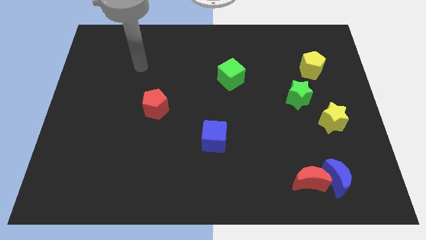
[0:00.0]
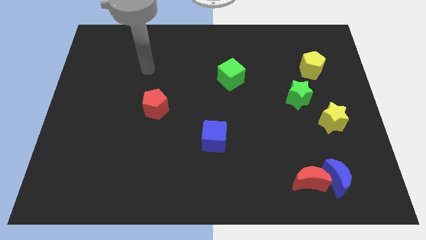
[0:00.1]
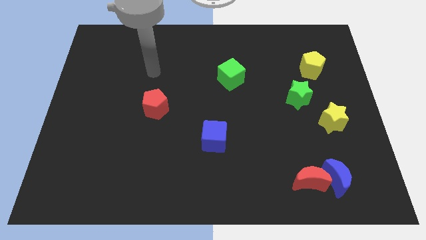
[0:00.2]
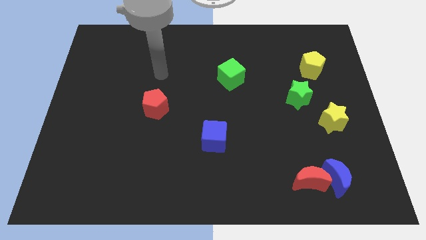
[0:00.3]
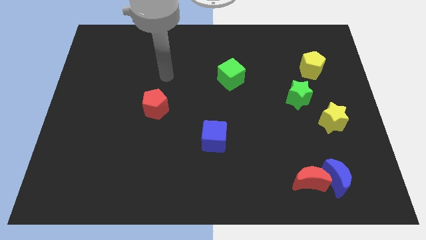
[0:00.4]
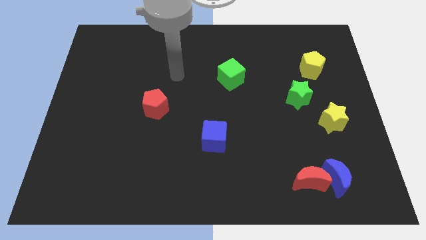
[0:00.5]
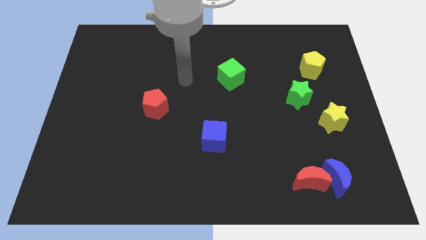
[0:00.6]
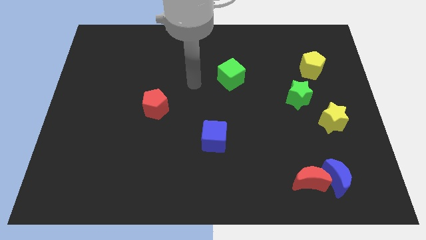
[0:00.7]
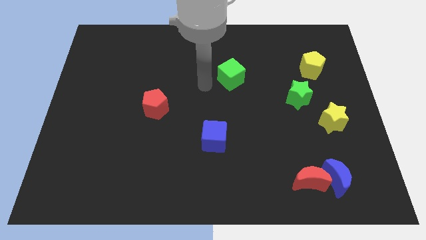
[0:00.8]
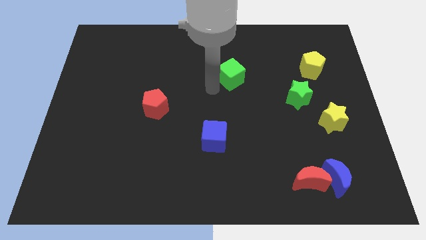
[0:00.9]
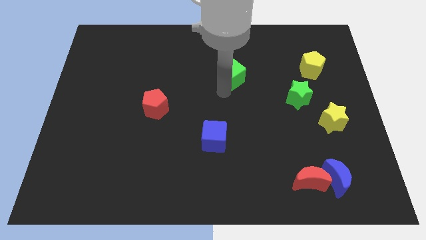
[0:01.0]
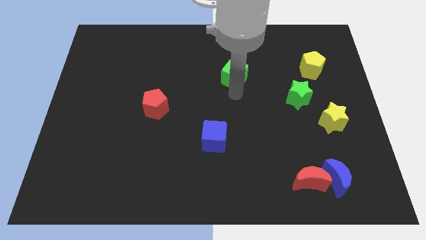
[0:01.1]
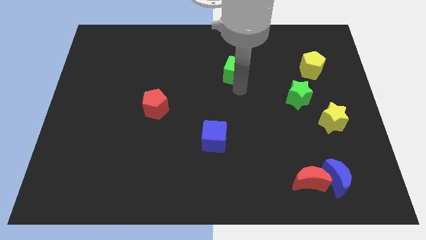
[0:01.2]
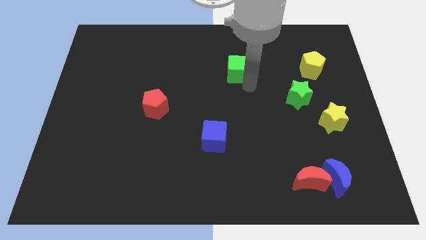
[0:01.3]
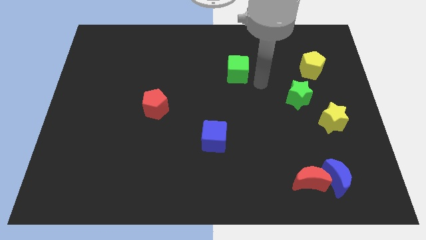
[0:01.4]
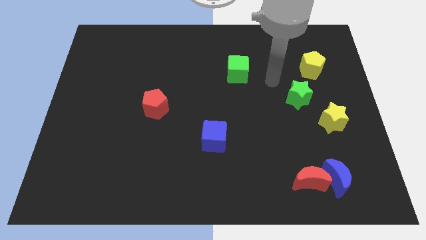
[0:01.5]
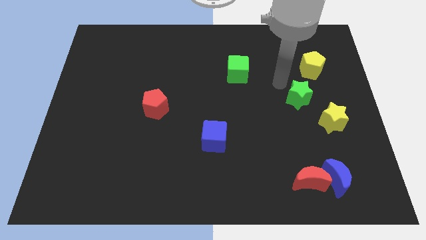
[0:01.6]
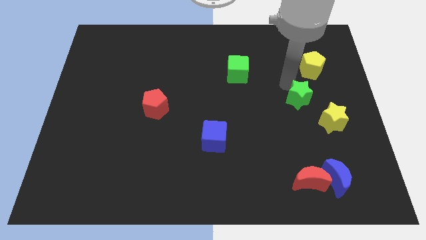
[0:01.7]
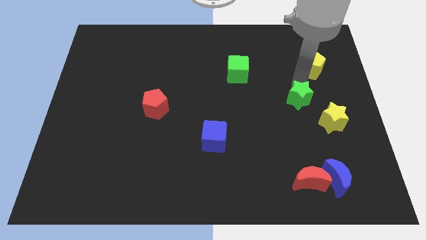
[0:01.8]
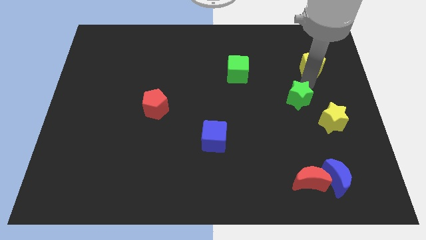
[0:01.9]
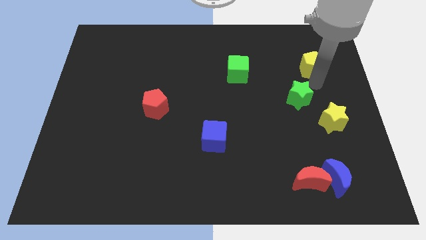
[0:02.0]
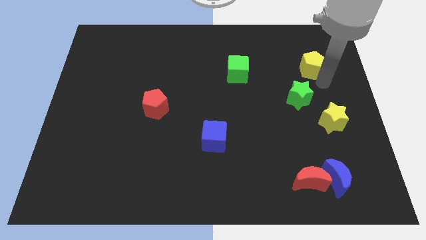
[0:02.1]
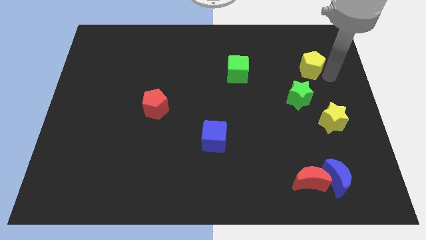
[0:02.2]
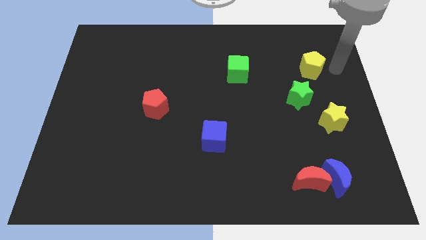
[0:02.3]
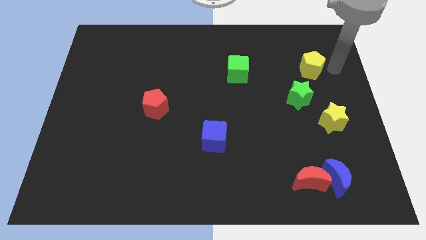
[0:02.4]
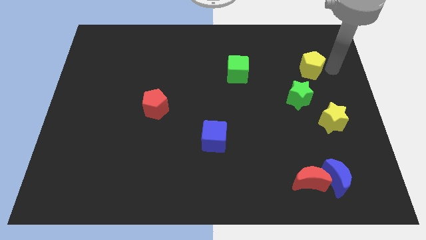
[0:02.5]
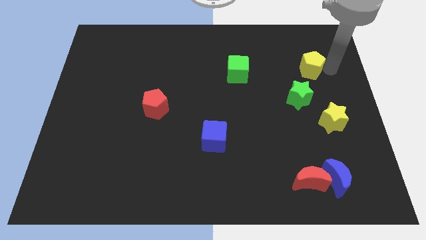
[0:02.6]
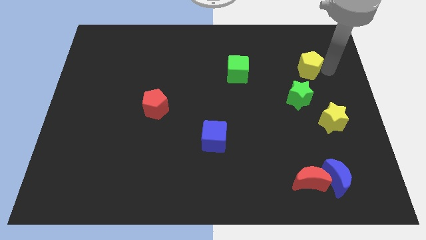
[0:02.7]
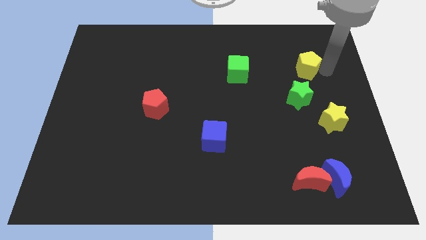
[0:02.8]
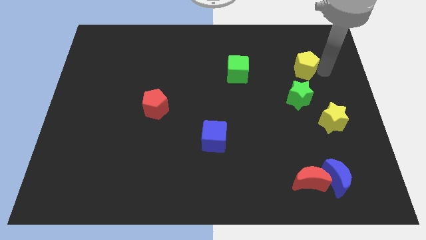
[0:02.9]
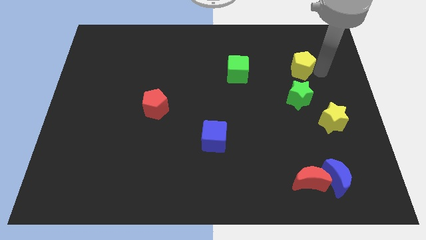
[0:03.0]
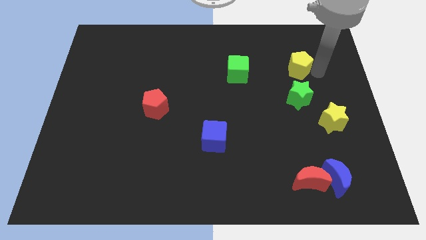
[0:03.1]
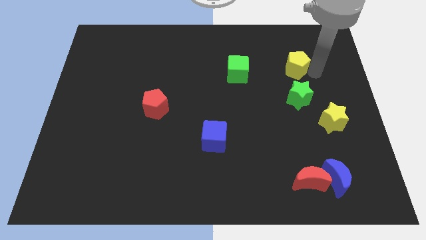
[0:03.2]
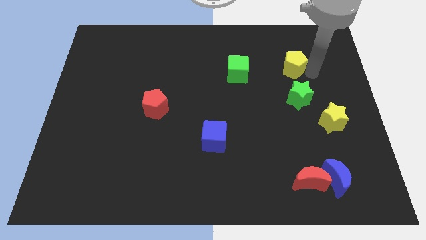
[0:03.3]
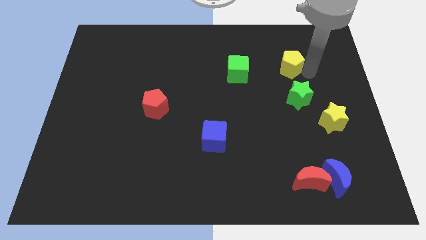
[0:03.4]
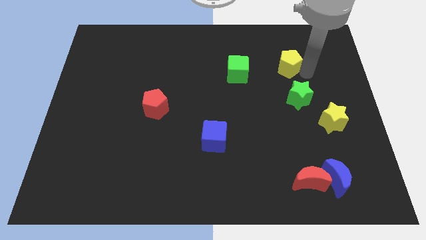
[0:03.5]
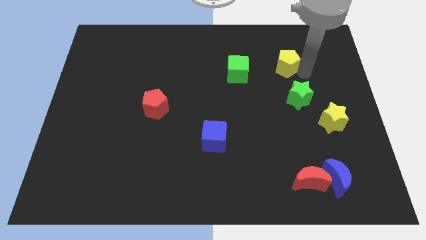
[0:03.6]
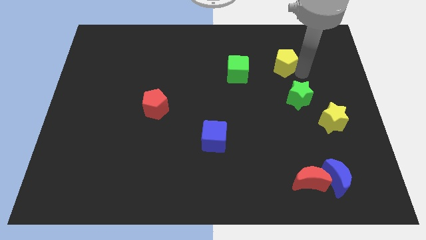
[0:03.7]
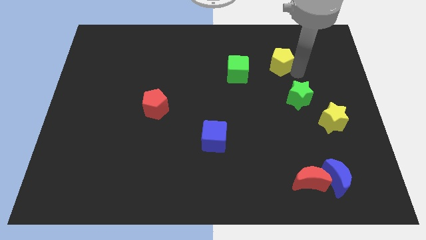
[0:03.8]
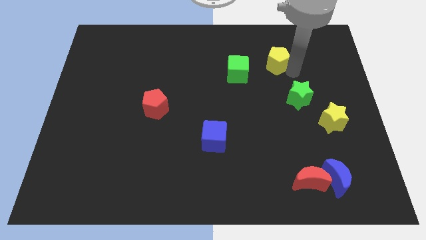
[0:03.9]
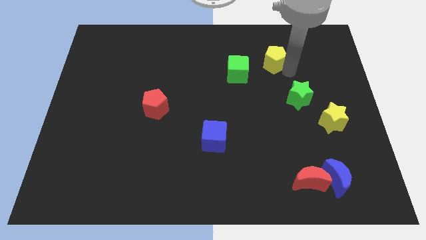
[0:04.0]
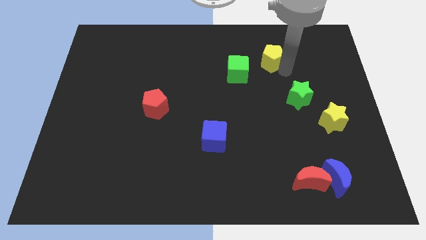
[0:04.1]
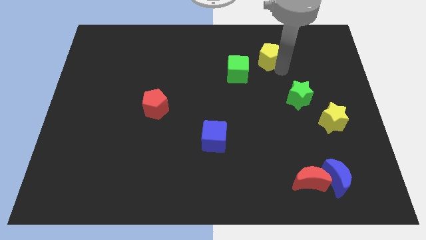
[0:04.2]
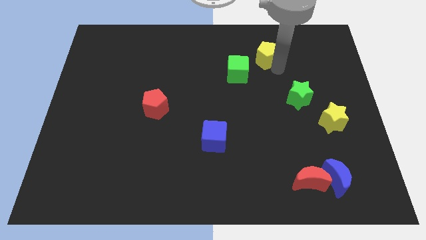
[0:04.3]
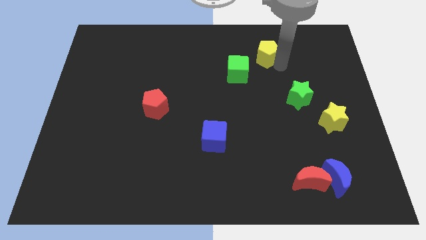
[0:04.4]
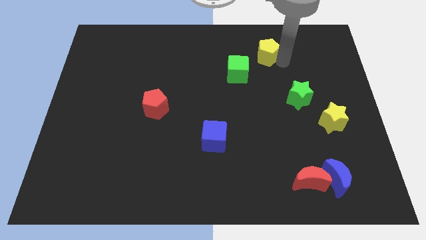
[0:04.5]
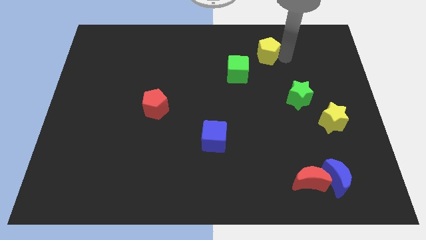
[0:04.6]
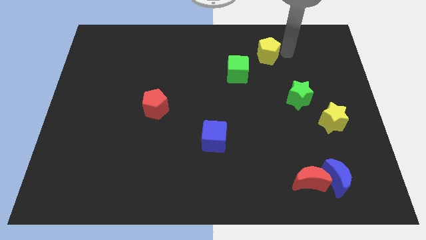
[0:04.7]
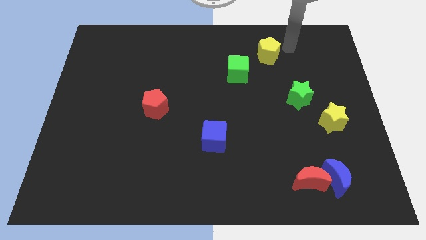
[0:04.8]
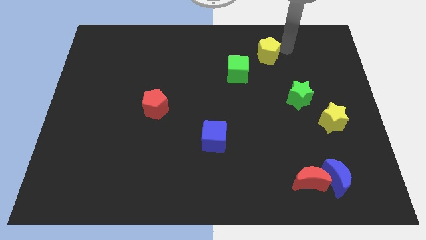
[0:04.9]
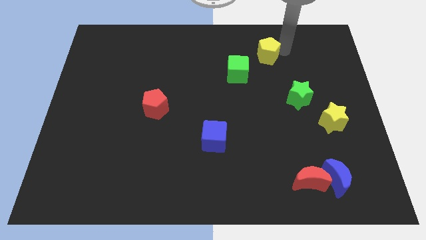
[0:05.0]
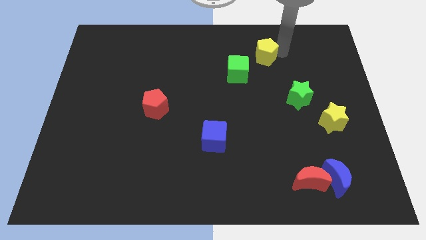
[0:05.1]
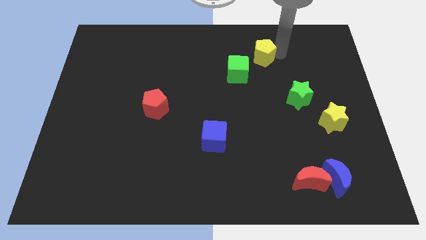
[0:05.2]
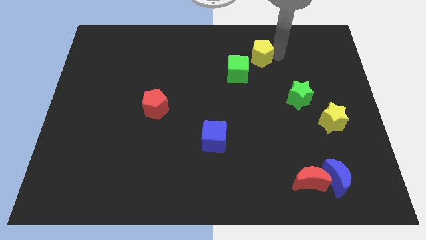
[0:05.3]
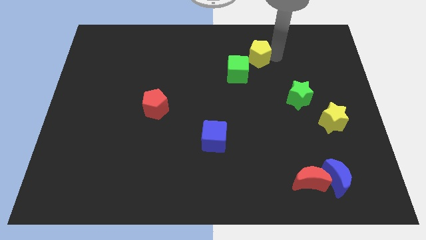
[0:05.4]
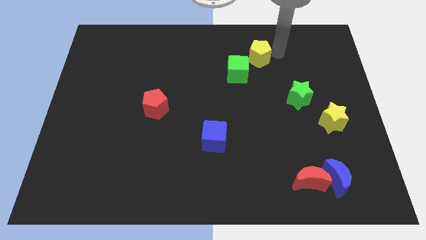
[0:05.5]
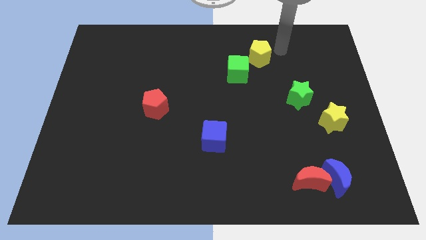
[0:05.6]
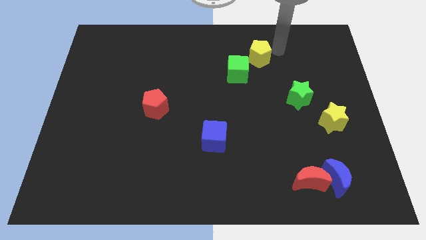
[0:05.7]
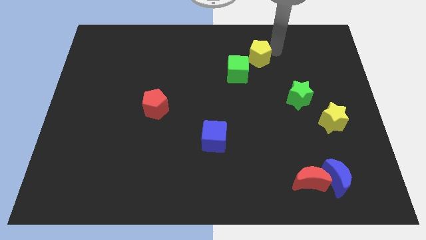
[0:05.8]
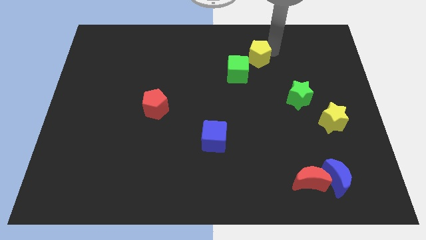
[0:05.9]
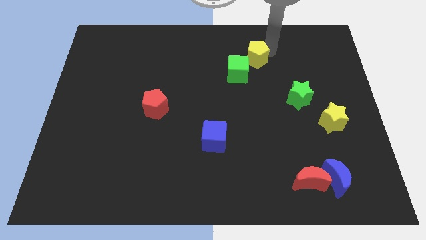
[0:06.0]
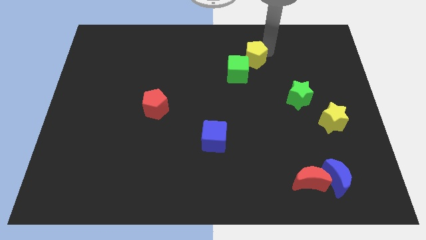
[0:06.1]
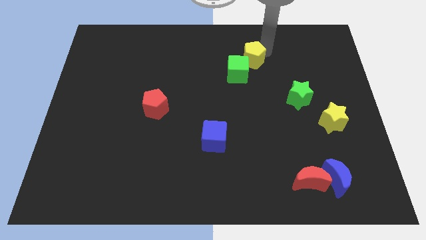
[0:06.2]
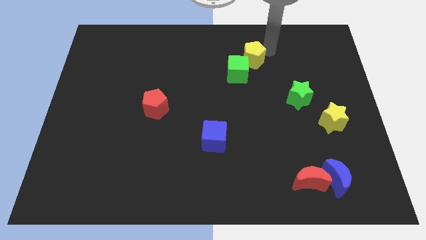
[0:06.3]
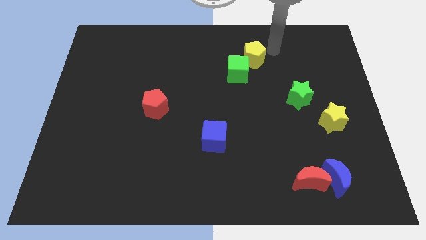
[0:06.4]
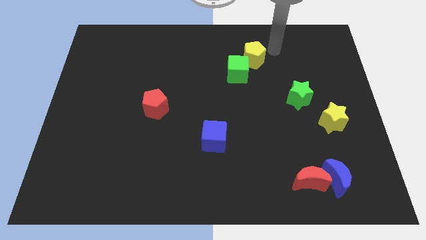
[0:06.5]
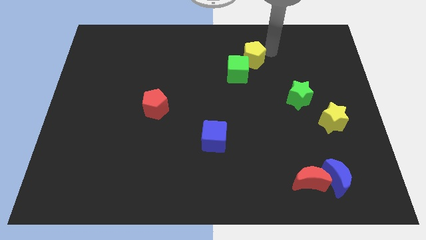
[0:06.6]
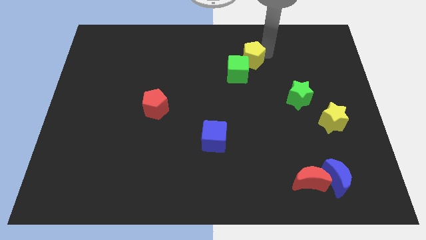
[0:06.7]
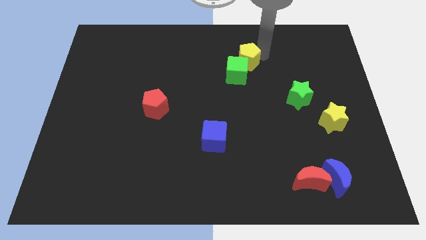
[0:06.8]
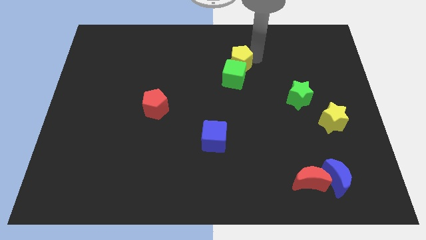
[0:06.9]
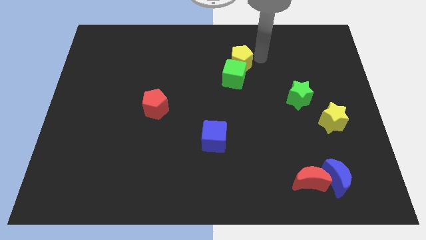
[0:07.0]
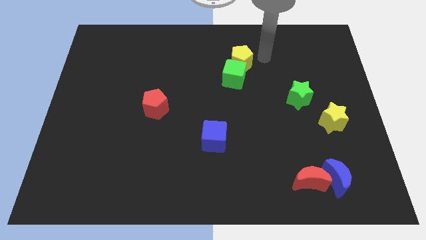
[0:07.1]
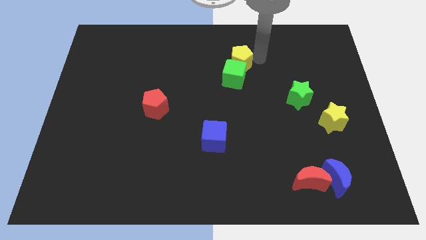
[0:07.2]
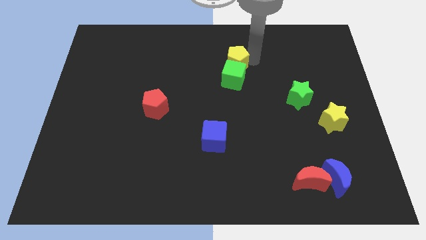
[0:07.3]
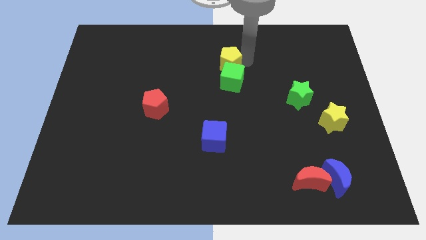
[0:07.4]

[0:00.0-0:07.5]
move the yellow pentagon to the left

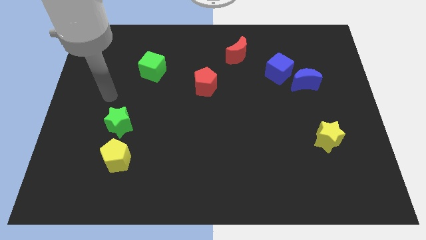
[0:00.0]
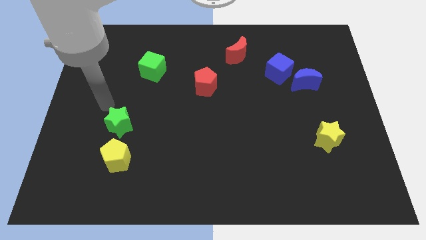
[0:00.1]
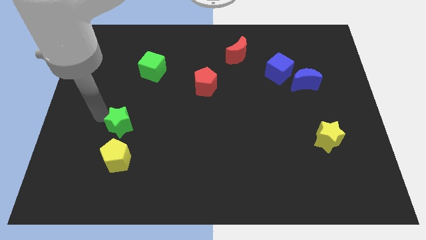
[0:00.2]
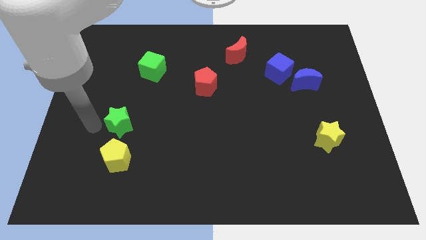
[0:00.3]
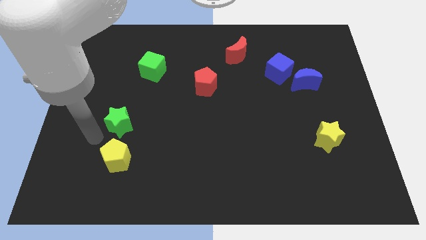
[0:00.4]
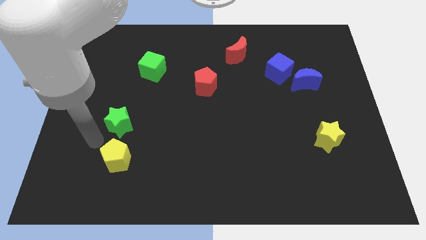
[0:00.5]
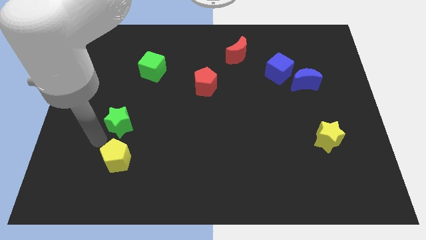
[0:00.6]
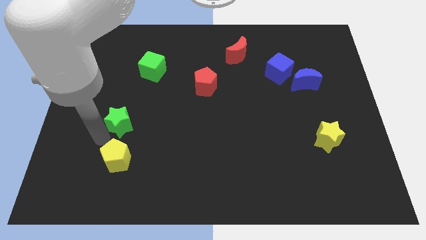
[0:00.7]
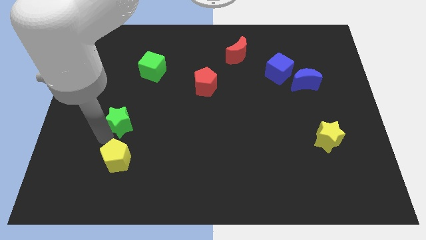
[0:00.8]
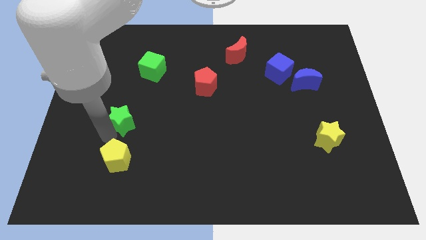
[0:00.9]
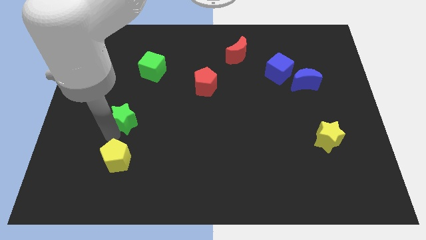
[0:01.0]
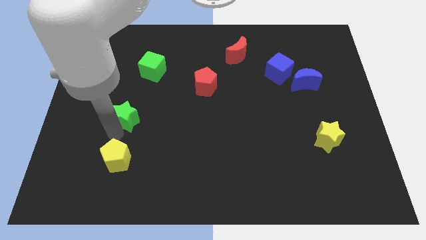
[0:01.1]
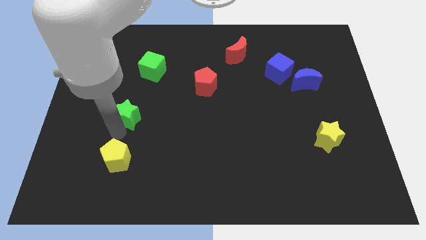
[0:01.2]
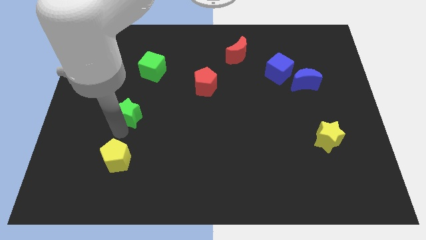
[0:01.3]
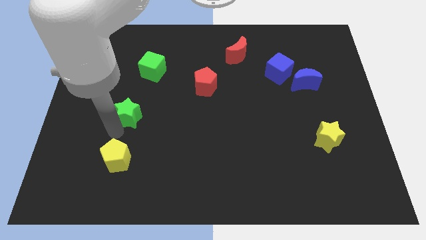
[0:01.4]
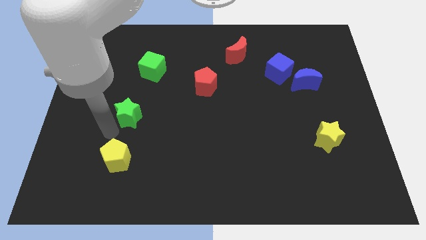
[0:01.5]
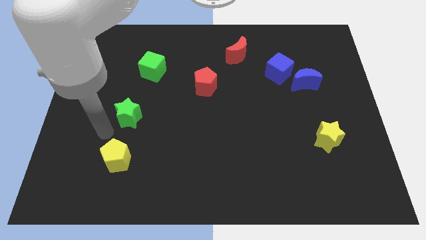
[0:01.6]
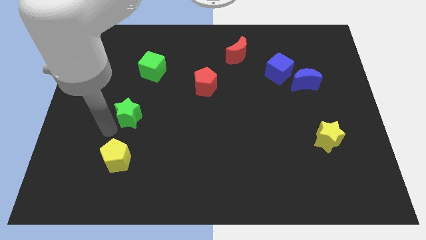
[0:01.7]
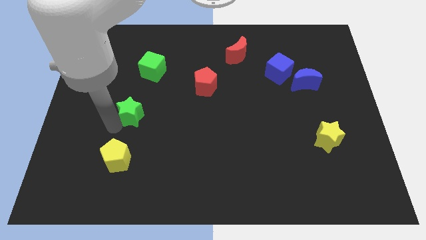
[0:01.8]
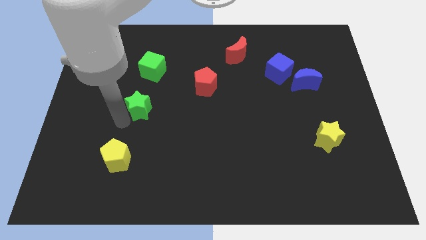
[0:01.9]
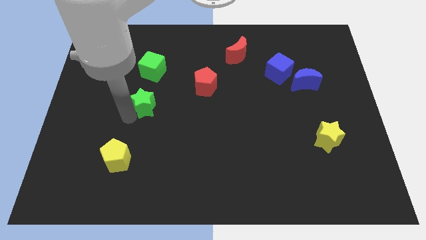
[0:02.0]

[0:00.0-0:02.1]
move the green star slightly upwards and to the right diagonally
